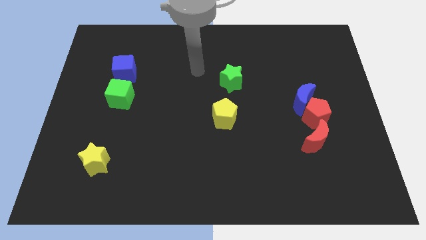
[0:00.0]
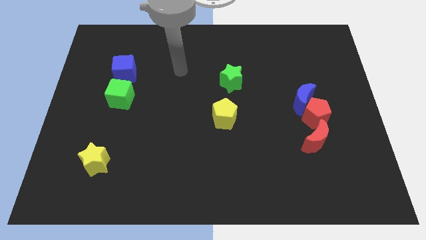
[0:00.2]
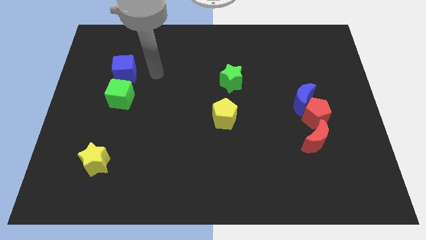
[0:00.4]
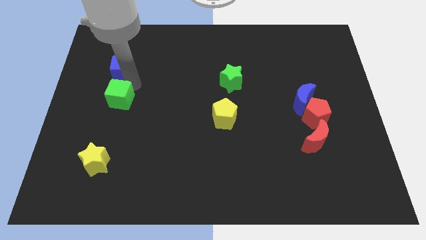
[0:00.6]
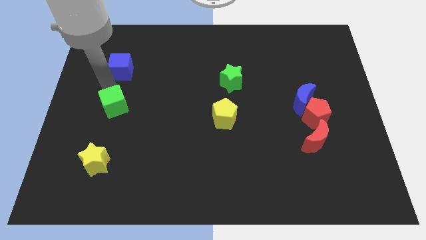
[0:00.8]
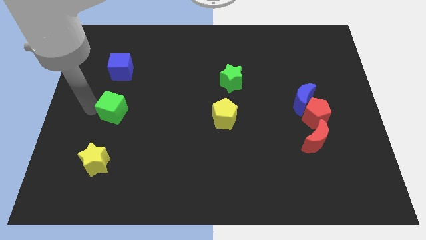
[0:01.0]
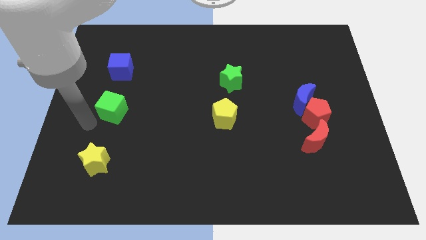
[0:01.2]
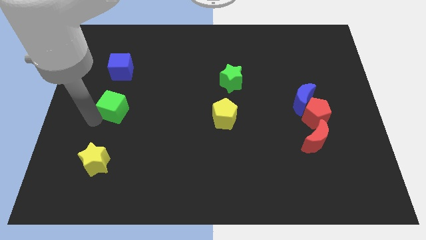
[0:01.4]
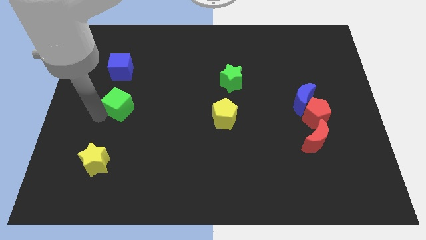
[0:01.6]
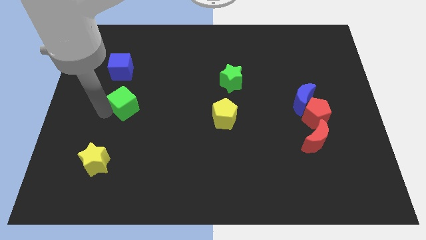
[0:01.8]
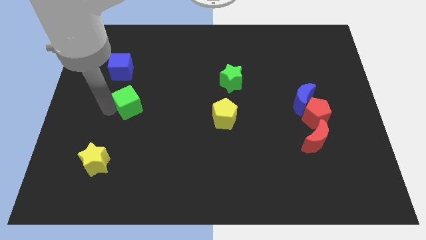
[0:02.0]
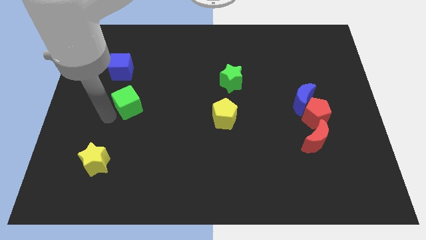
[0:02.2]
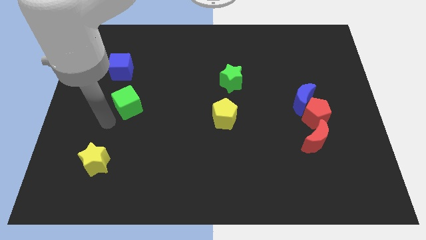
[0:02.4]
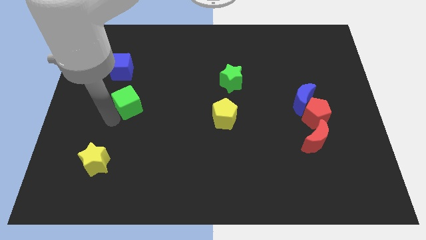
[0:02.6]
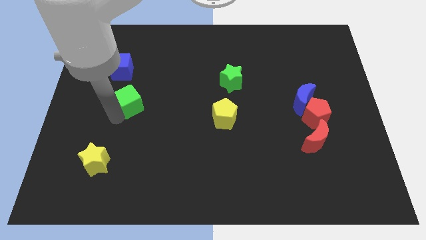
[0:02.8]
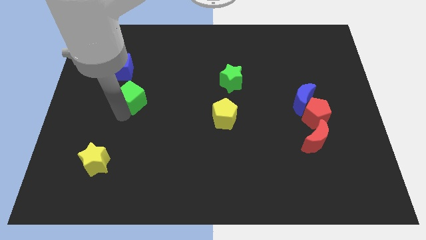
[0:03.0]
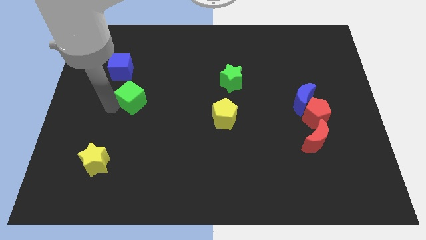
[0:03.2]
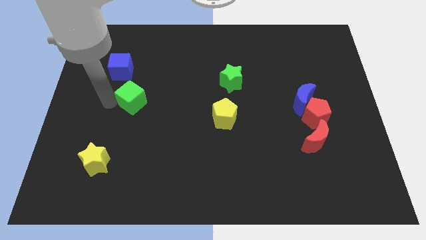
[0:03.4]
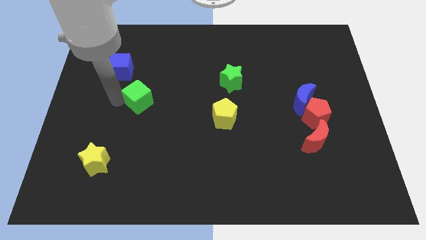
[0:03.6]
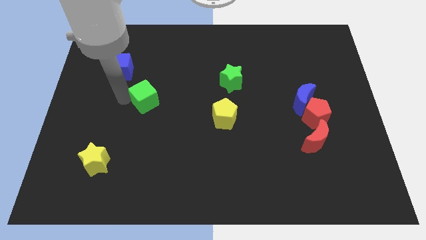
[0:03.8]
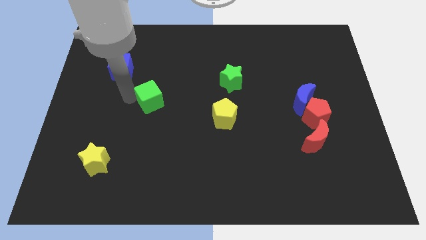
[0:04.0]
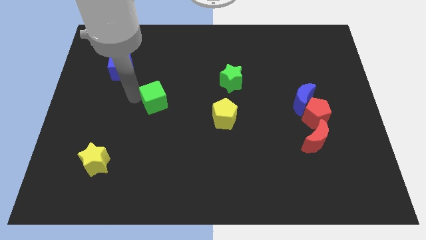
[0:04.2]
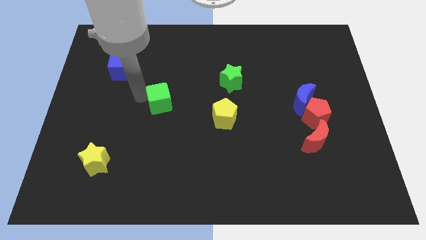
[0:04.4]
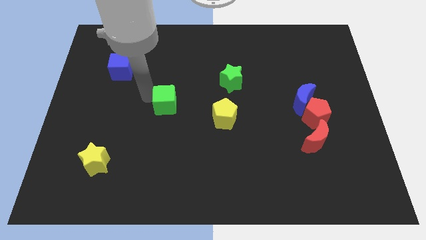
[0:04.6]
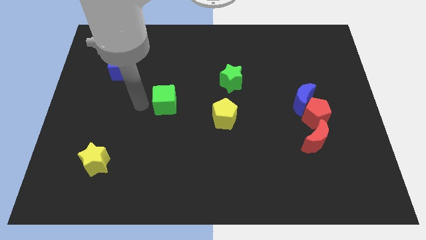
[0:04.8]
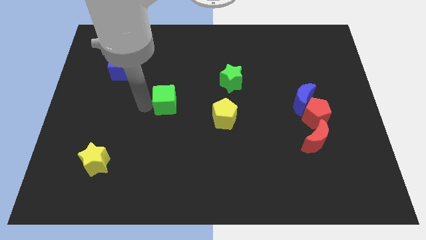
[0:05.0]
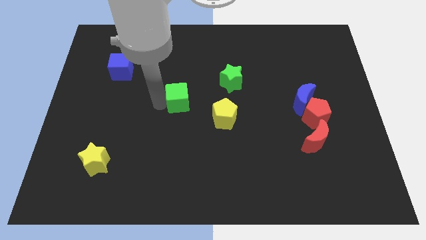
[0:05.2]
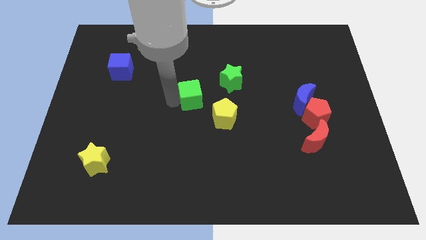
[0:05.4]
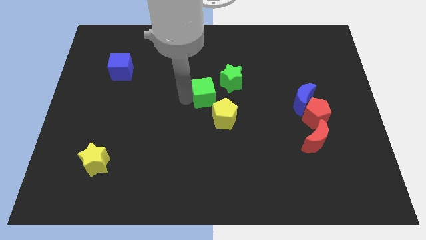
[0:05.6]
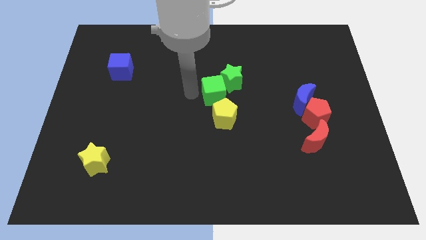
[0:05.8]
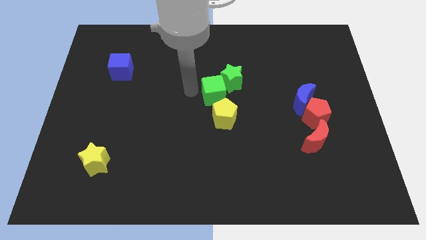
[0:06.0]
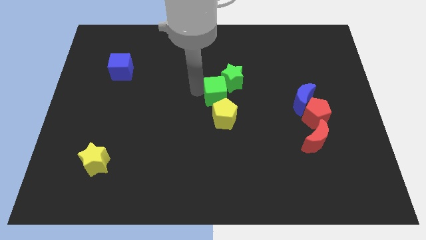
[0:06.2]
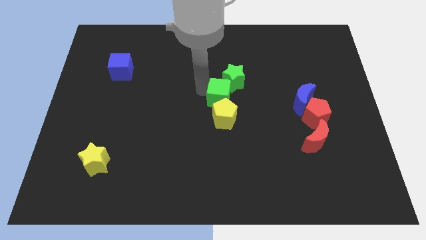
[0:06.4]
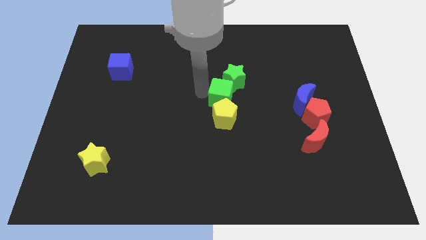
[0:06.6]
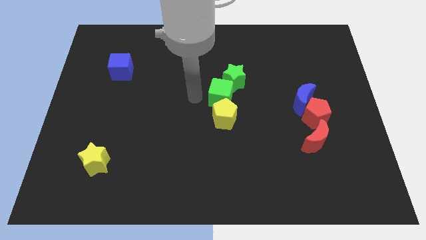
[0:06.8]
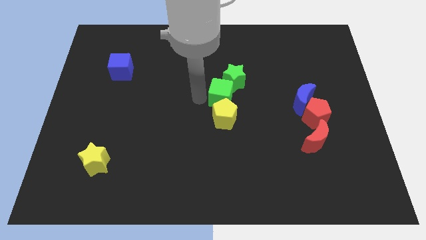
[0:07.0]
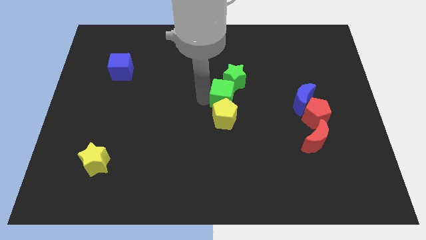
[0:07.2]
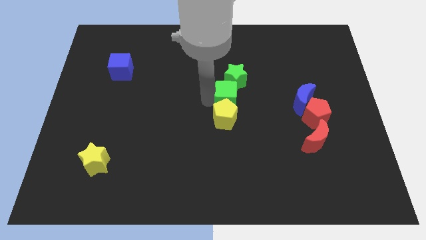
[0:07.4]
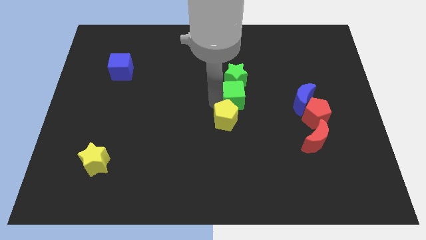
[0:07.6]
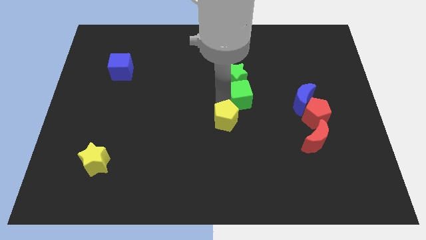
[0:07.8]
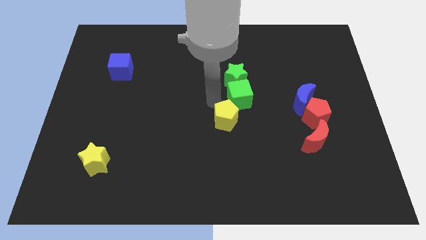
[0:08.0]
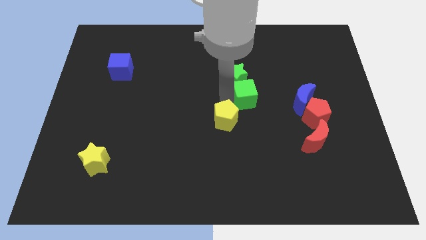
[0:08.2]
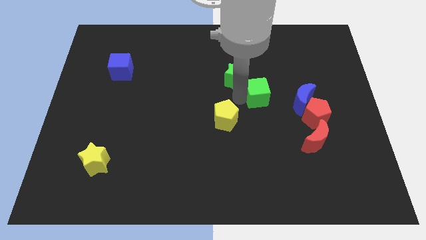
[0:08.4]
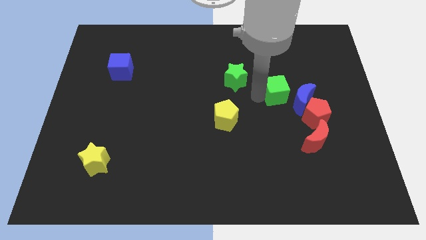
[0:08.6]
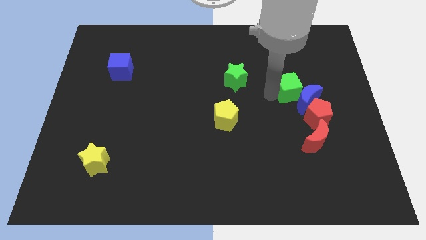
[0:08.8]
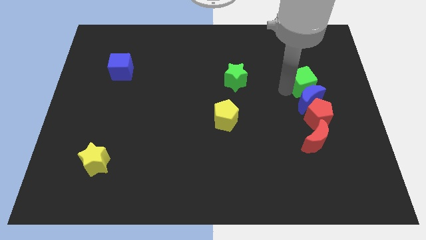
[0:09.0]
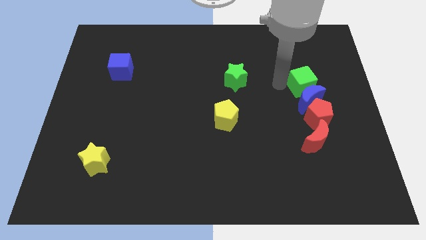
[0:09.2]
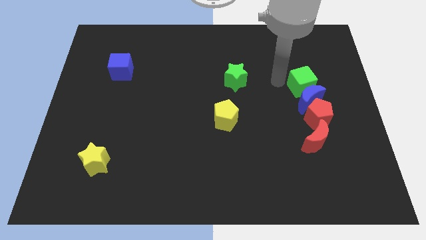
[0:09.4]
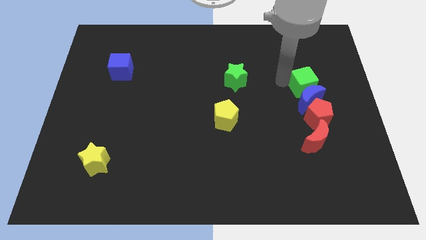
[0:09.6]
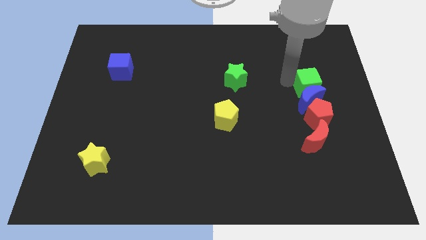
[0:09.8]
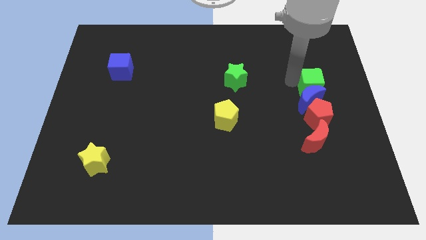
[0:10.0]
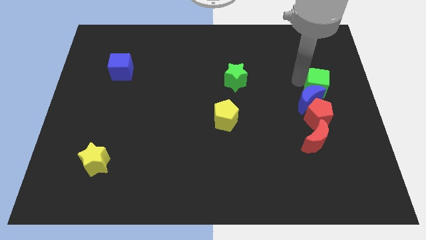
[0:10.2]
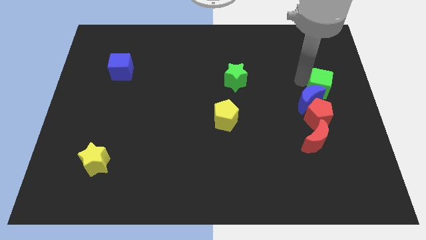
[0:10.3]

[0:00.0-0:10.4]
move the green cube to the right side

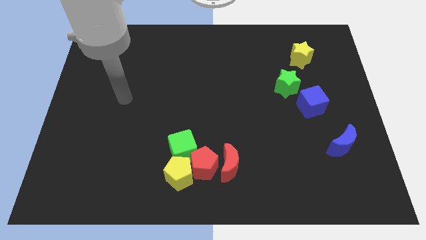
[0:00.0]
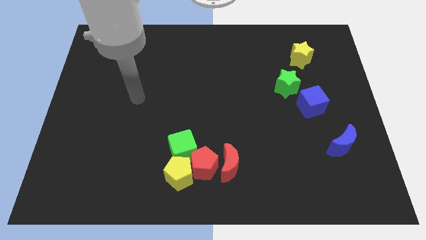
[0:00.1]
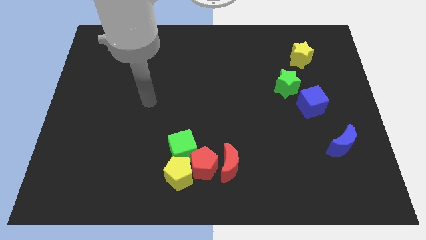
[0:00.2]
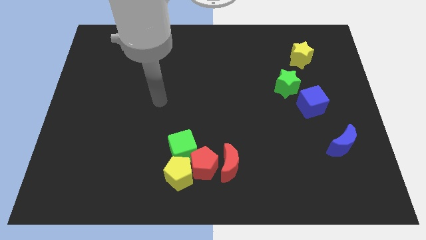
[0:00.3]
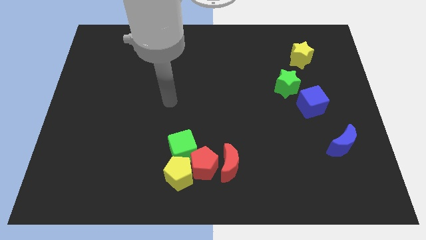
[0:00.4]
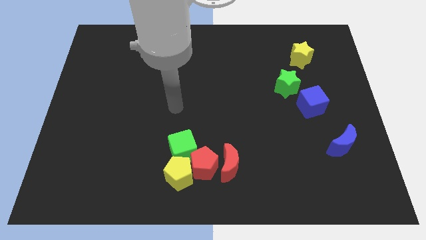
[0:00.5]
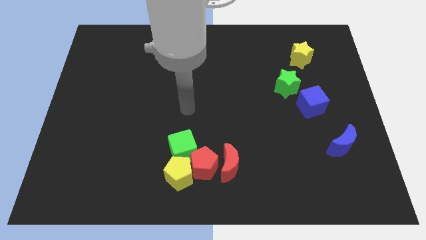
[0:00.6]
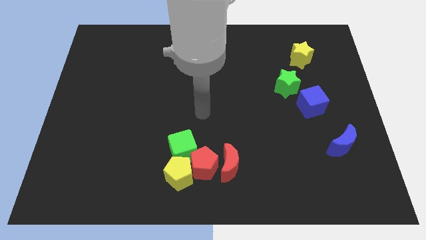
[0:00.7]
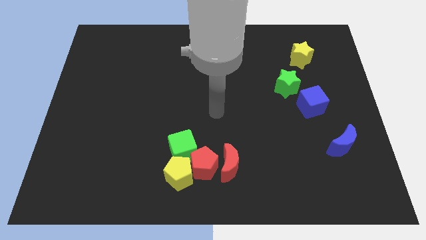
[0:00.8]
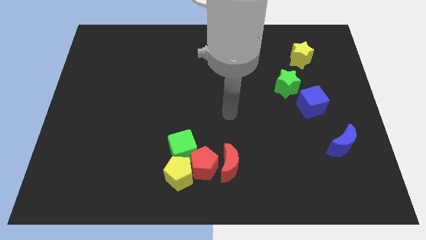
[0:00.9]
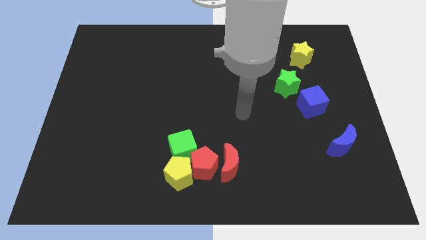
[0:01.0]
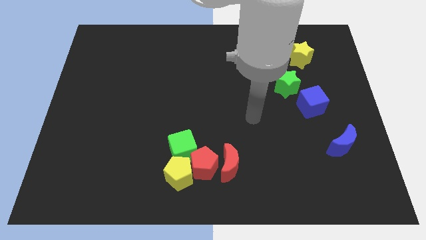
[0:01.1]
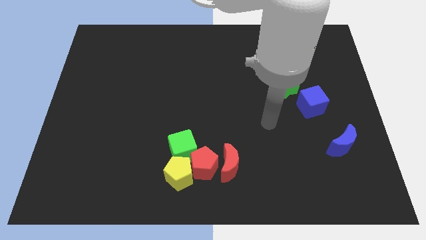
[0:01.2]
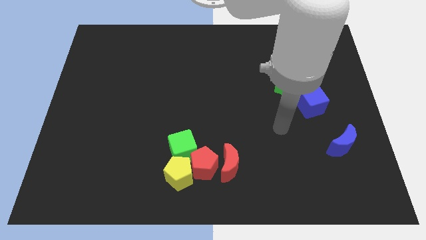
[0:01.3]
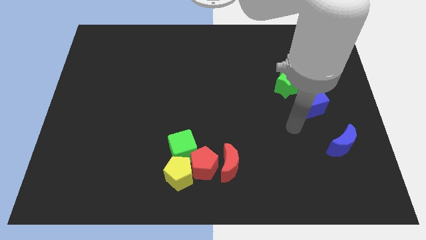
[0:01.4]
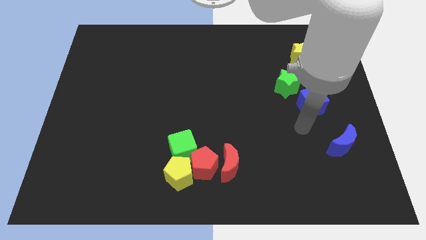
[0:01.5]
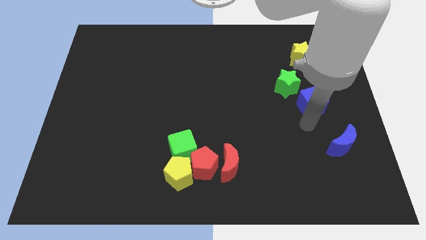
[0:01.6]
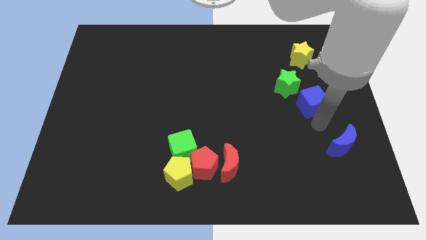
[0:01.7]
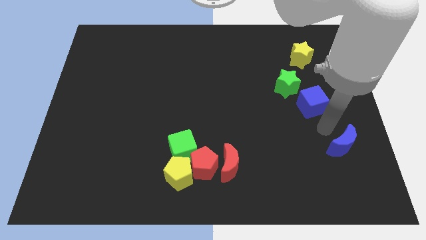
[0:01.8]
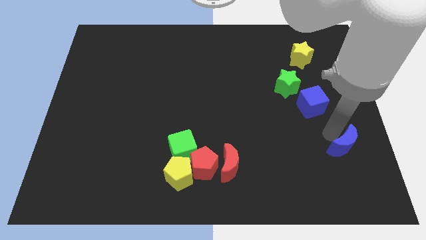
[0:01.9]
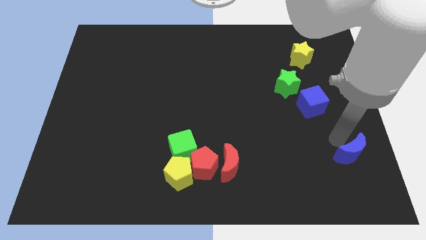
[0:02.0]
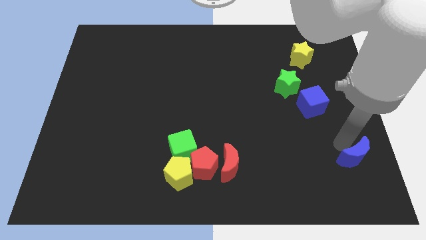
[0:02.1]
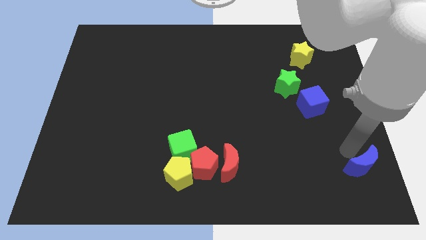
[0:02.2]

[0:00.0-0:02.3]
slide the blue moon to the bottom right of the board

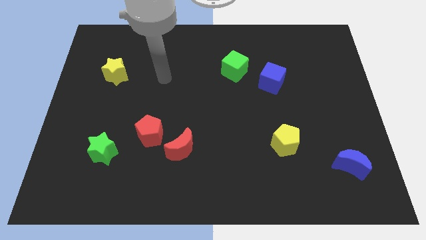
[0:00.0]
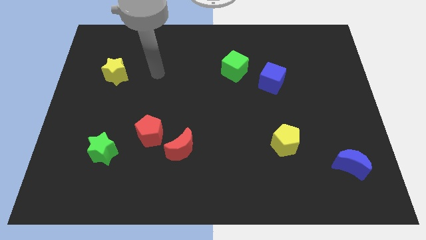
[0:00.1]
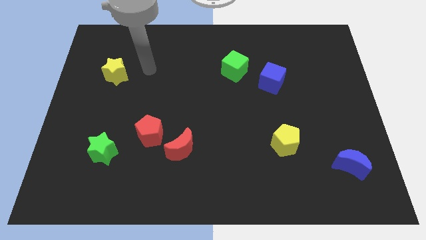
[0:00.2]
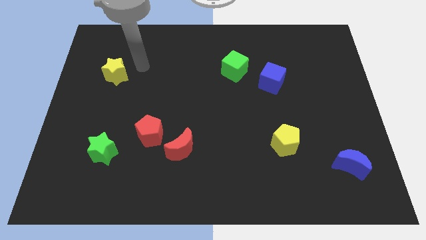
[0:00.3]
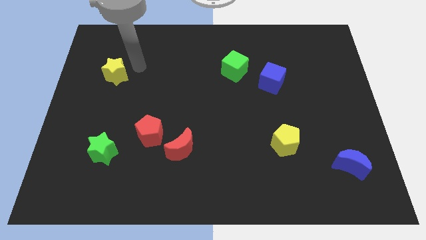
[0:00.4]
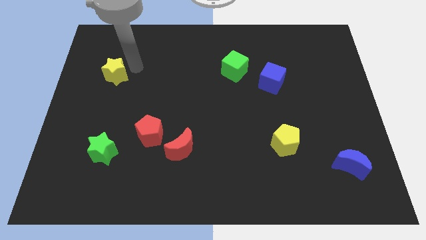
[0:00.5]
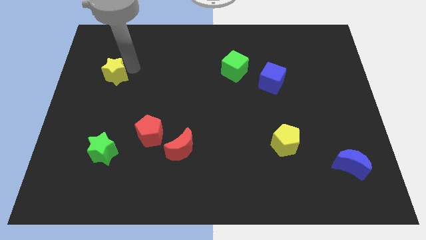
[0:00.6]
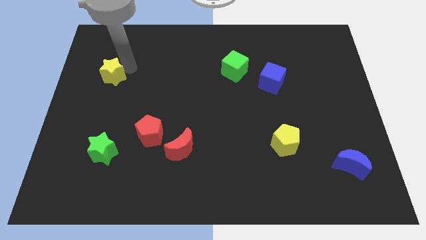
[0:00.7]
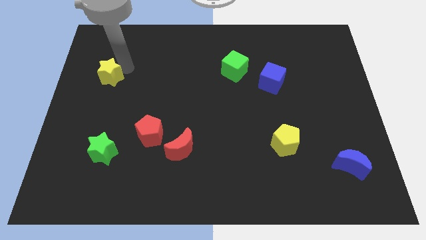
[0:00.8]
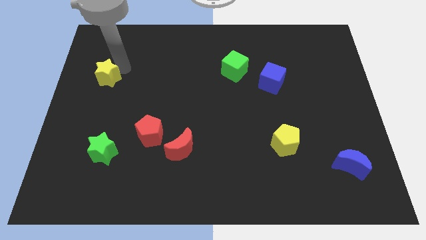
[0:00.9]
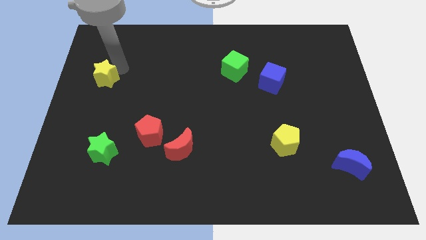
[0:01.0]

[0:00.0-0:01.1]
push the yellow star to the left side of the board
